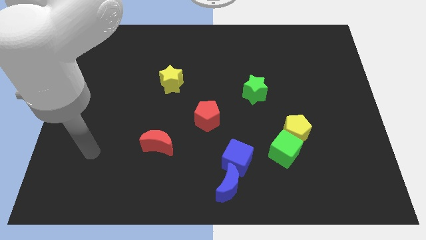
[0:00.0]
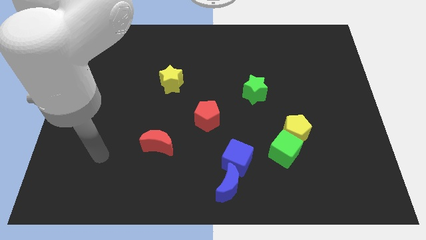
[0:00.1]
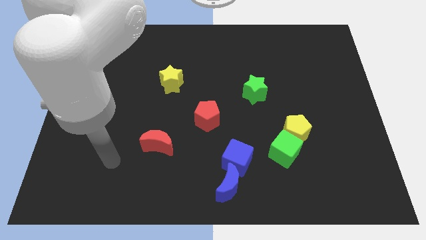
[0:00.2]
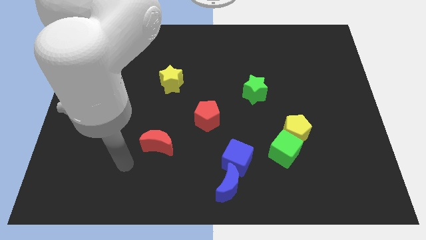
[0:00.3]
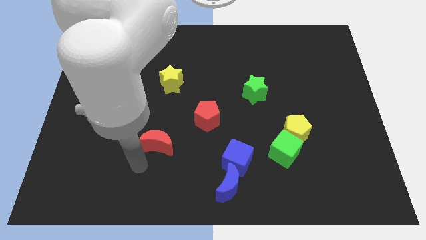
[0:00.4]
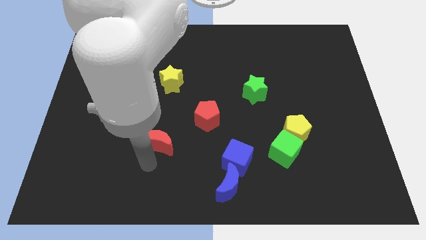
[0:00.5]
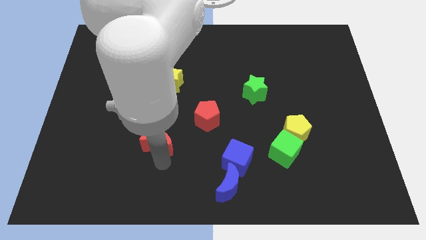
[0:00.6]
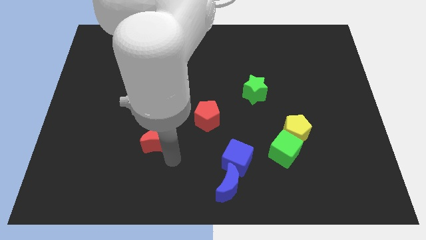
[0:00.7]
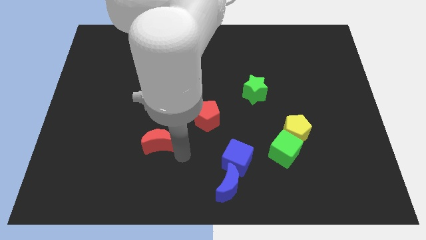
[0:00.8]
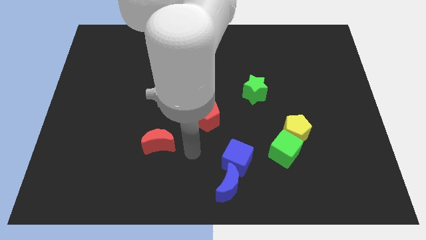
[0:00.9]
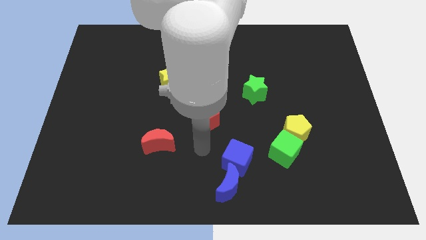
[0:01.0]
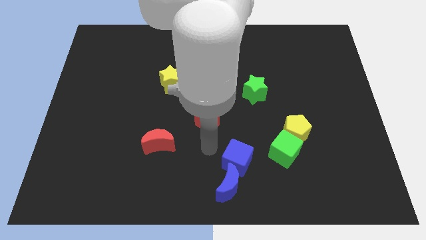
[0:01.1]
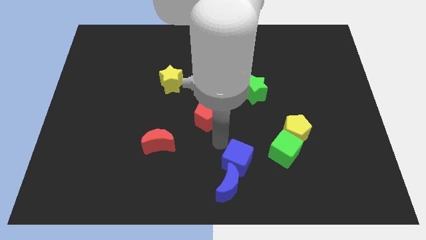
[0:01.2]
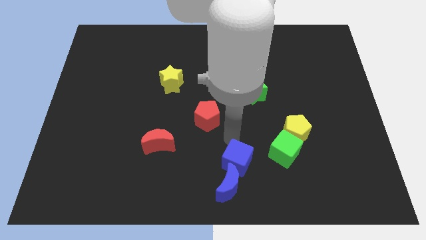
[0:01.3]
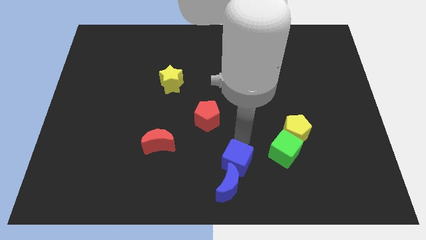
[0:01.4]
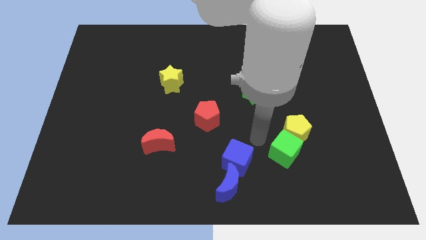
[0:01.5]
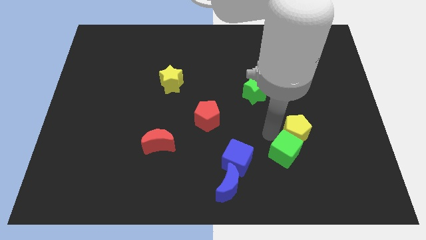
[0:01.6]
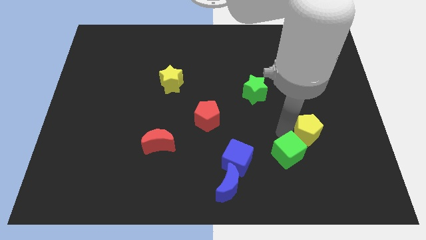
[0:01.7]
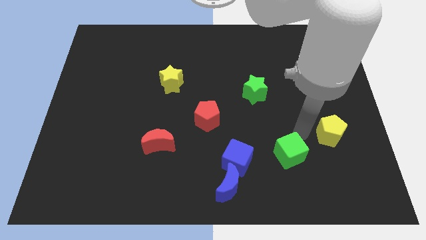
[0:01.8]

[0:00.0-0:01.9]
move the green cube away from the yellow pentagon

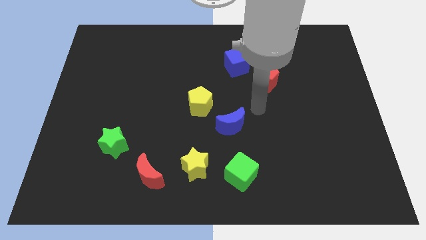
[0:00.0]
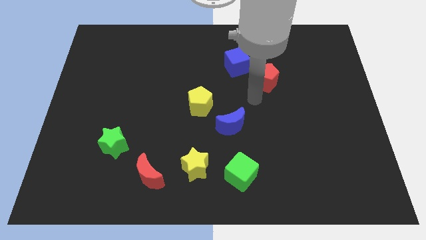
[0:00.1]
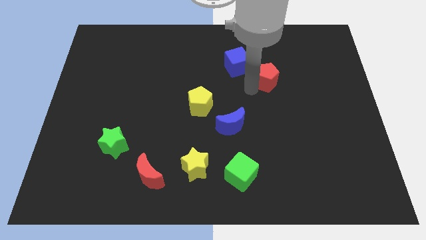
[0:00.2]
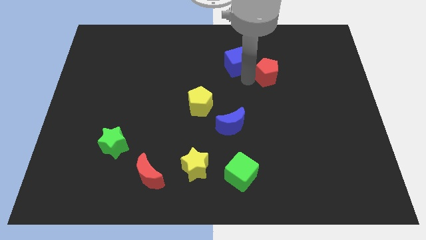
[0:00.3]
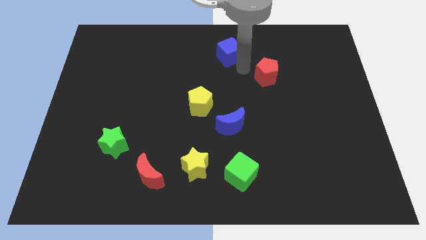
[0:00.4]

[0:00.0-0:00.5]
separate the red pentagon from the blue cube

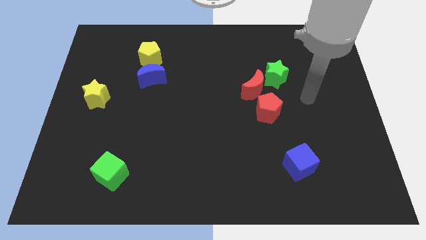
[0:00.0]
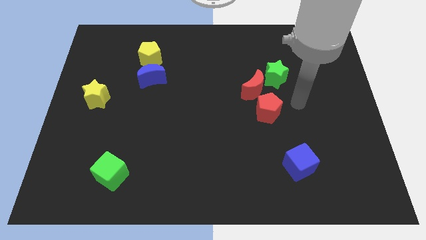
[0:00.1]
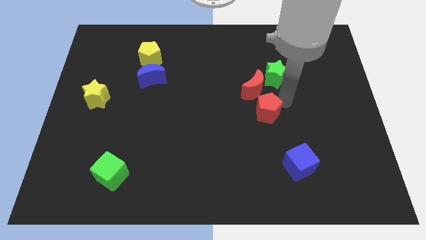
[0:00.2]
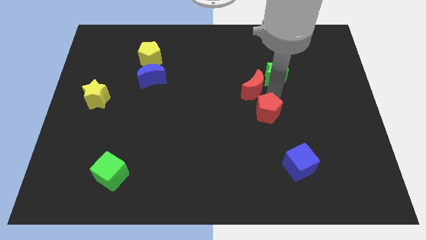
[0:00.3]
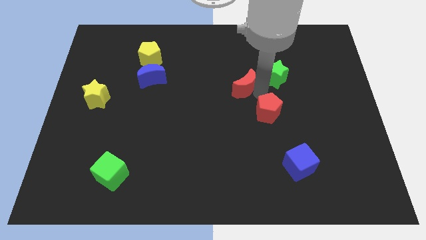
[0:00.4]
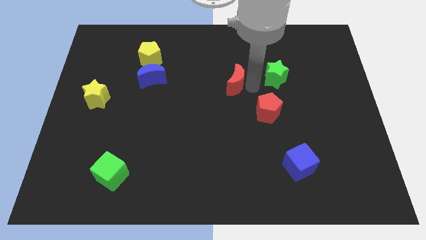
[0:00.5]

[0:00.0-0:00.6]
separate the green star from the red moon

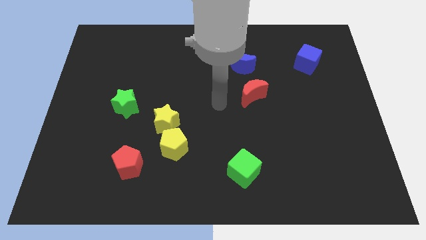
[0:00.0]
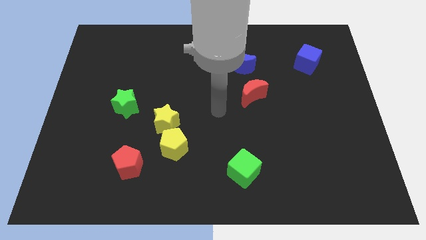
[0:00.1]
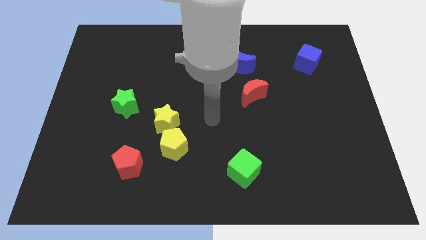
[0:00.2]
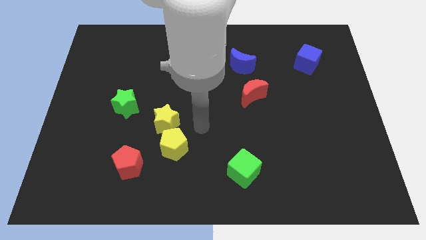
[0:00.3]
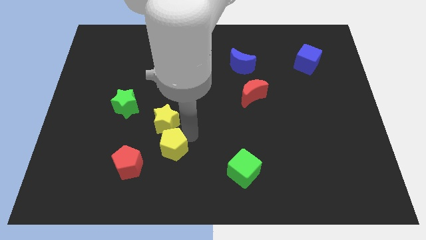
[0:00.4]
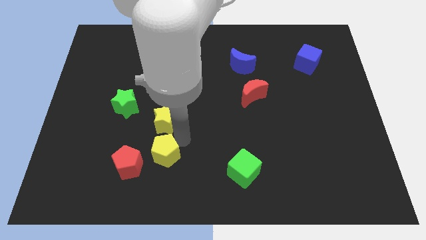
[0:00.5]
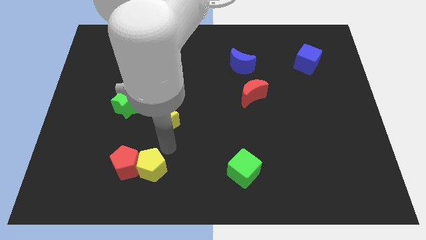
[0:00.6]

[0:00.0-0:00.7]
pull the yellow star apart from the yellow pentagon

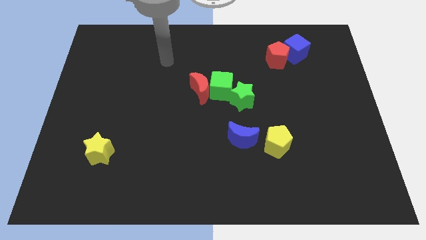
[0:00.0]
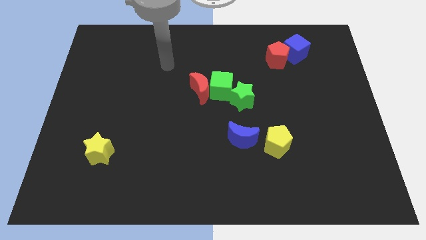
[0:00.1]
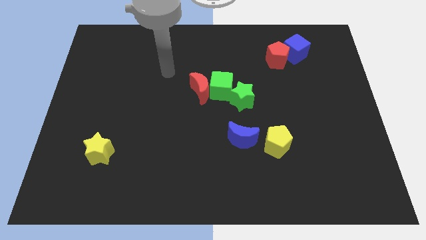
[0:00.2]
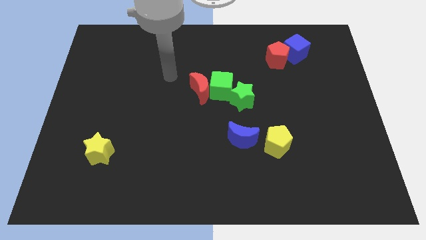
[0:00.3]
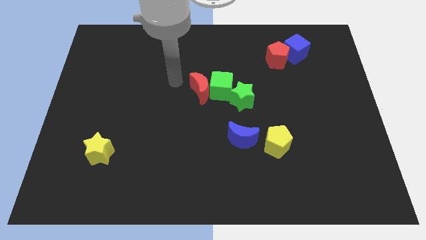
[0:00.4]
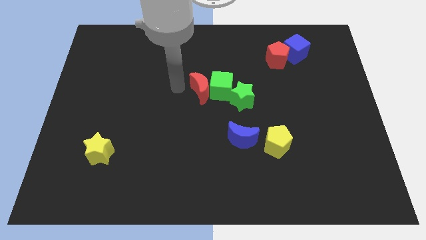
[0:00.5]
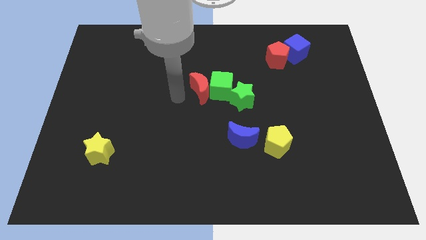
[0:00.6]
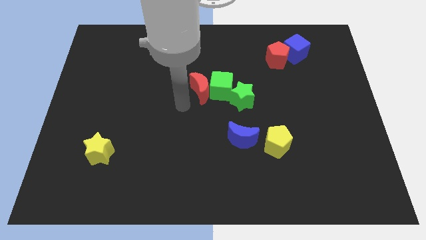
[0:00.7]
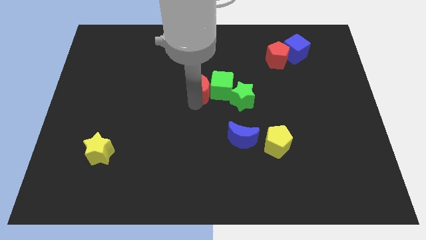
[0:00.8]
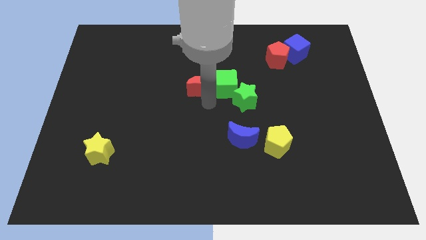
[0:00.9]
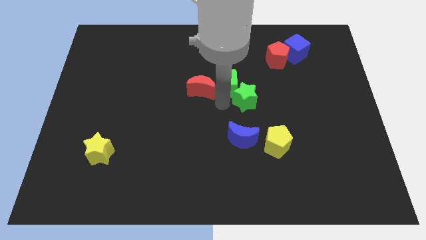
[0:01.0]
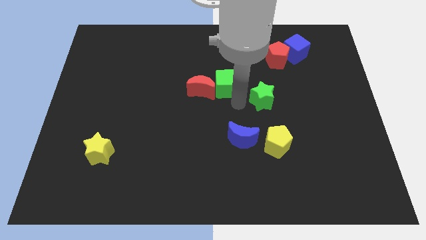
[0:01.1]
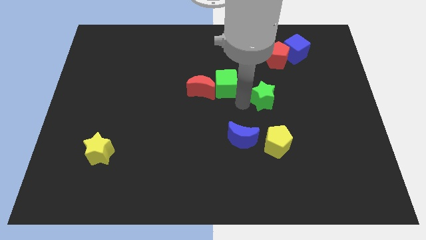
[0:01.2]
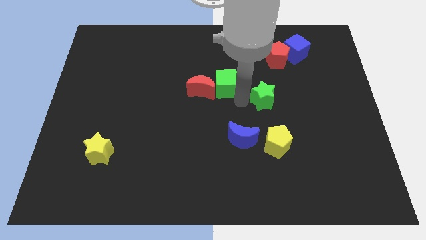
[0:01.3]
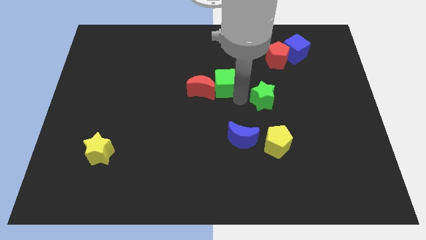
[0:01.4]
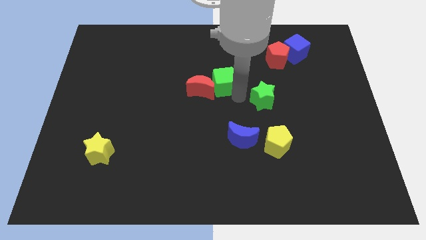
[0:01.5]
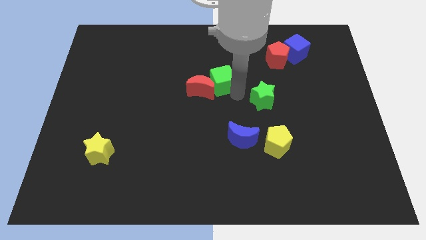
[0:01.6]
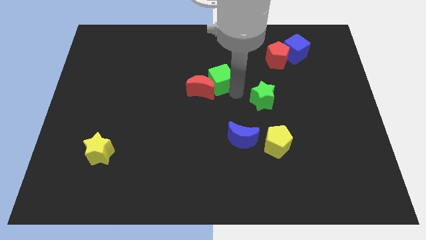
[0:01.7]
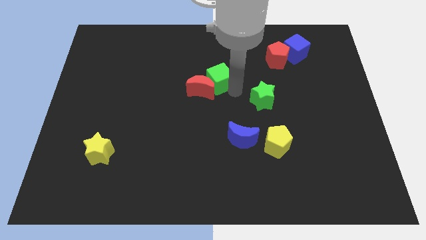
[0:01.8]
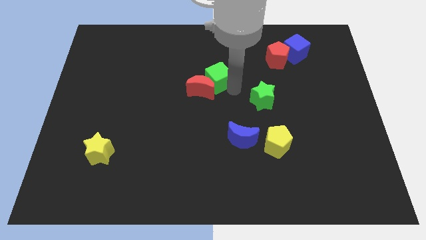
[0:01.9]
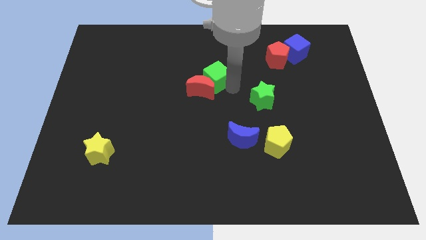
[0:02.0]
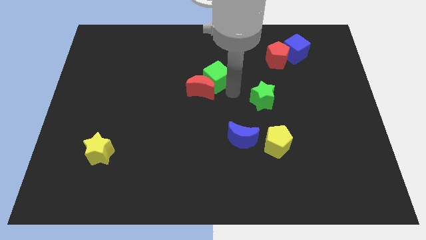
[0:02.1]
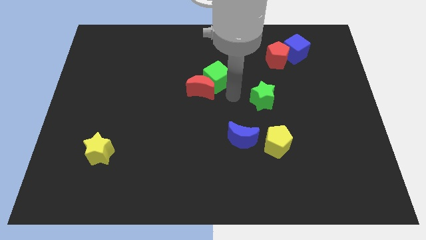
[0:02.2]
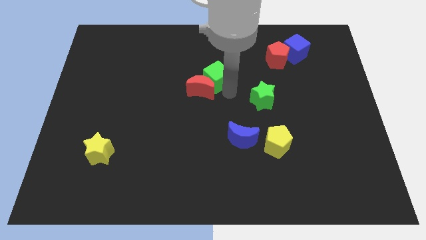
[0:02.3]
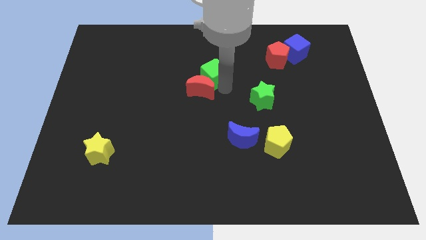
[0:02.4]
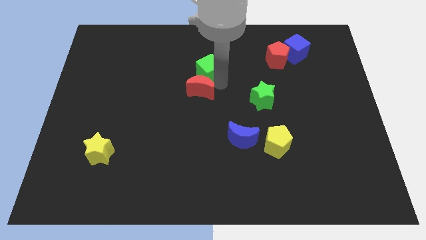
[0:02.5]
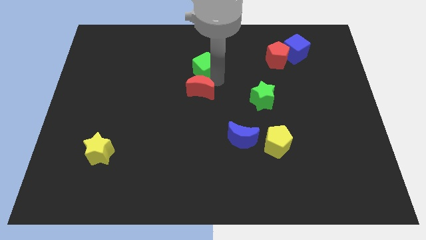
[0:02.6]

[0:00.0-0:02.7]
move the green cube away from the red moon and green star

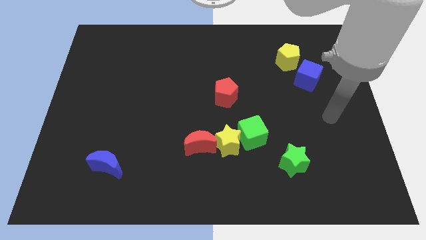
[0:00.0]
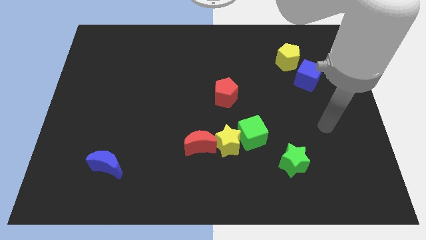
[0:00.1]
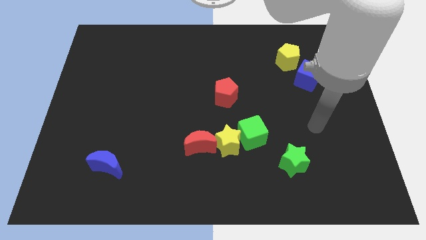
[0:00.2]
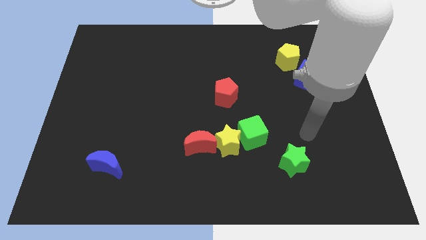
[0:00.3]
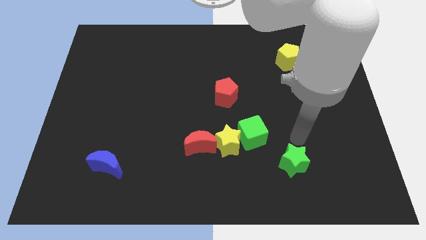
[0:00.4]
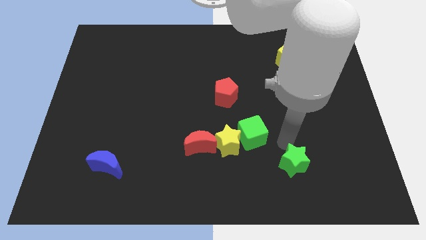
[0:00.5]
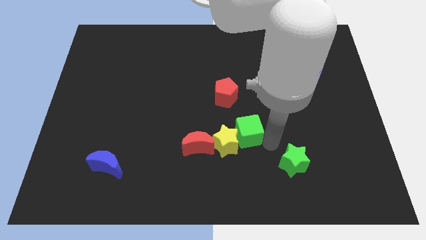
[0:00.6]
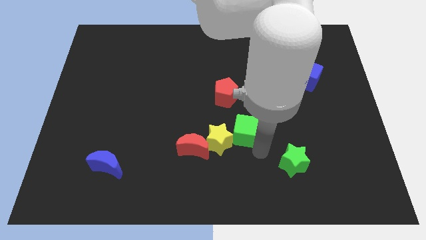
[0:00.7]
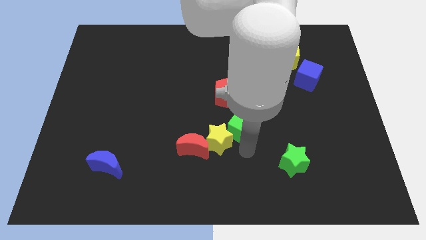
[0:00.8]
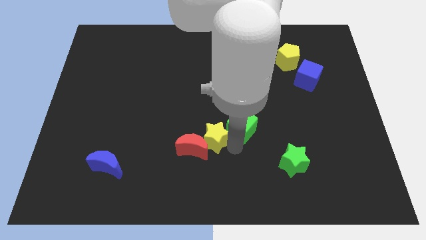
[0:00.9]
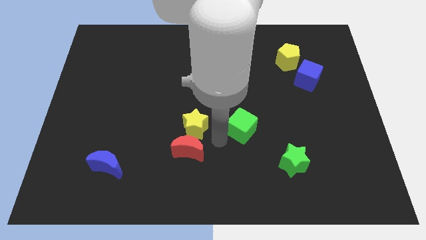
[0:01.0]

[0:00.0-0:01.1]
pull the green cube apart from the yellow star

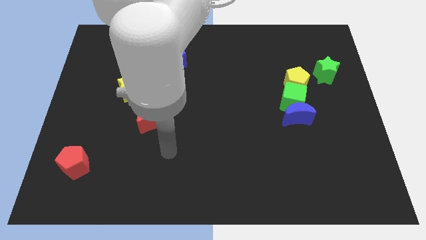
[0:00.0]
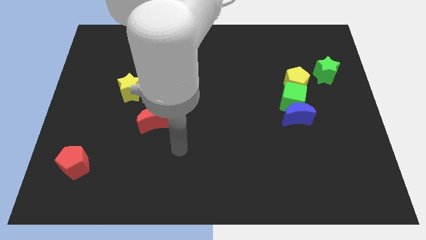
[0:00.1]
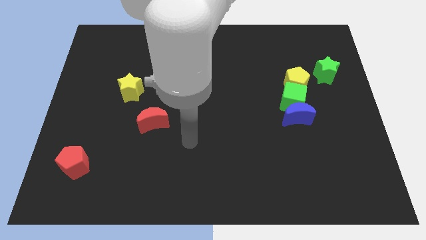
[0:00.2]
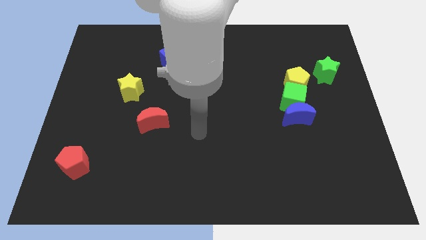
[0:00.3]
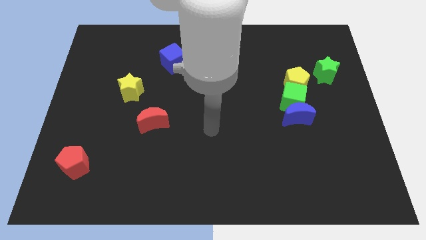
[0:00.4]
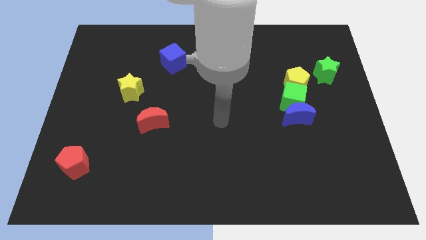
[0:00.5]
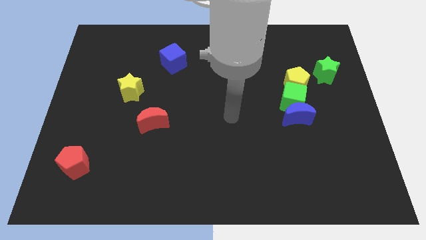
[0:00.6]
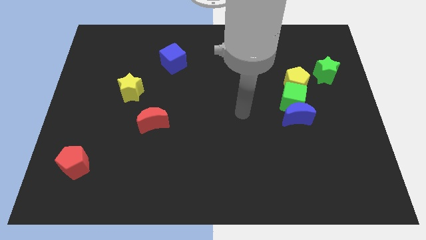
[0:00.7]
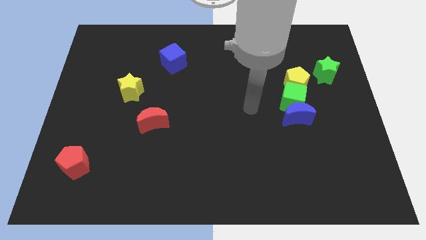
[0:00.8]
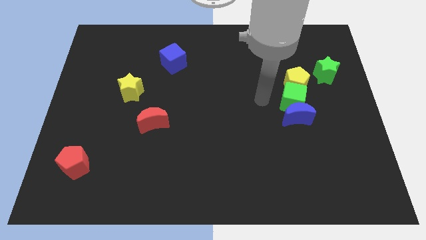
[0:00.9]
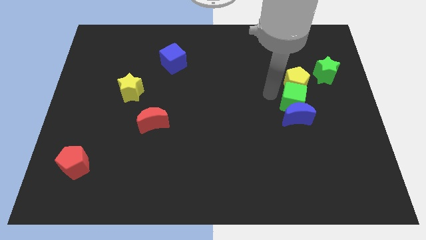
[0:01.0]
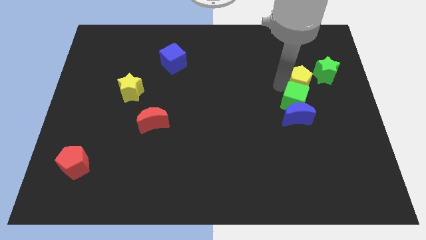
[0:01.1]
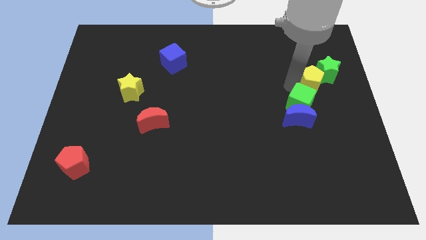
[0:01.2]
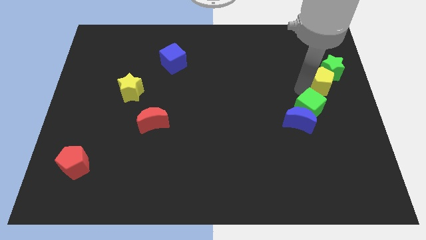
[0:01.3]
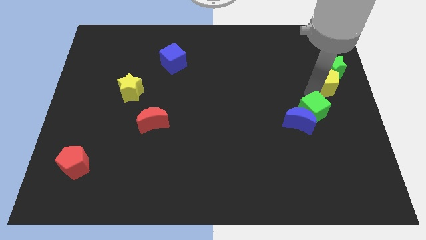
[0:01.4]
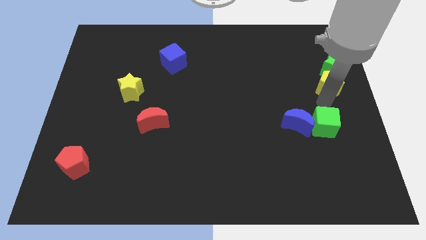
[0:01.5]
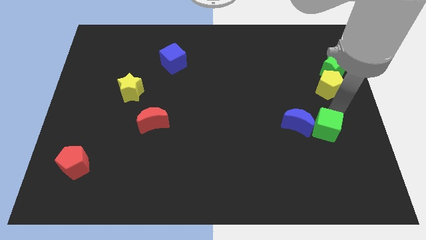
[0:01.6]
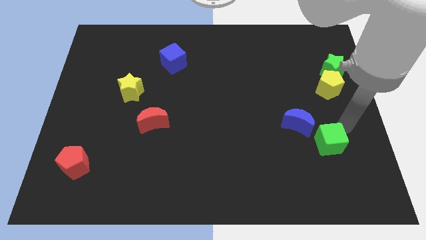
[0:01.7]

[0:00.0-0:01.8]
move the green cube away from the blue moon and yellow pentagon
